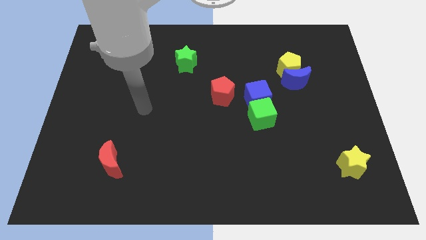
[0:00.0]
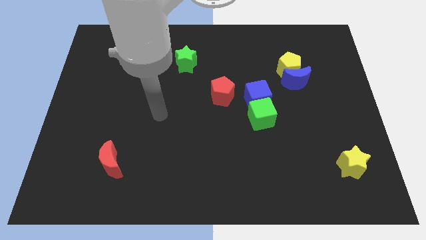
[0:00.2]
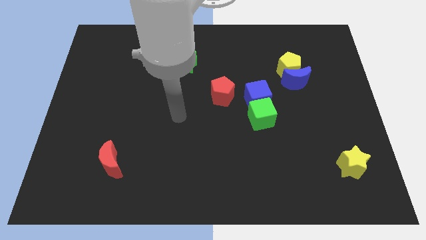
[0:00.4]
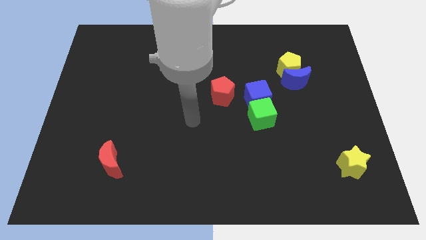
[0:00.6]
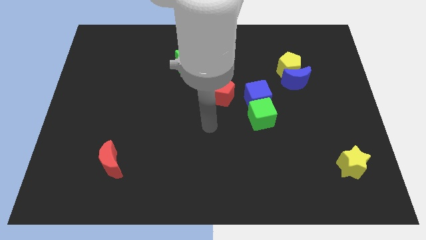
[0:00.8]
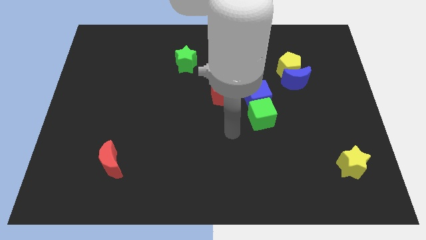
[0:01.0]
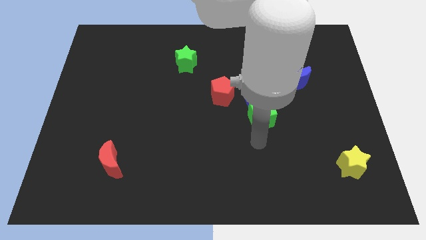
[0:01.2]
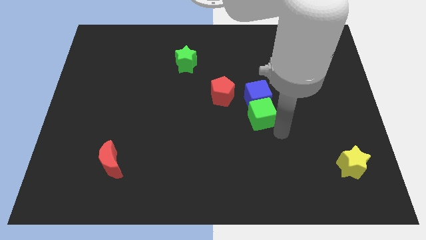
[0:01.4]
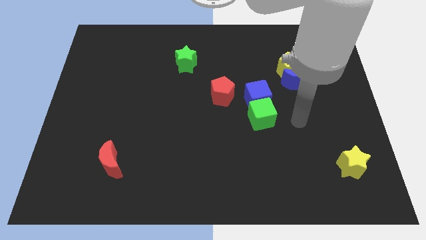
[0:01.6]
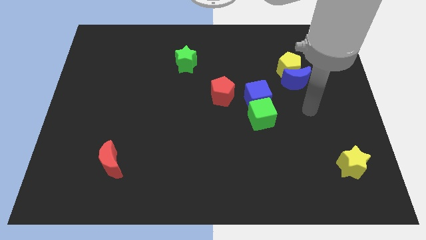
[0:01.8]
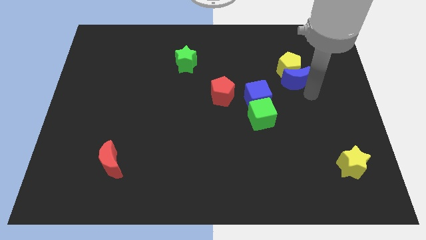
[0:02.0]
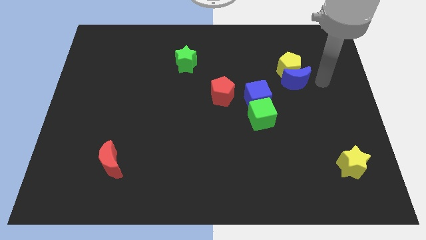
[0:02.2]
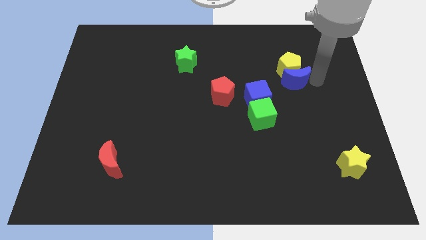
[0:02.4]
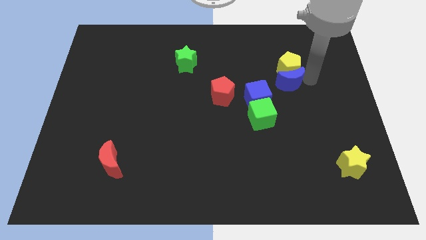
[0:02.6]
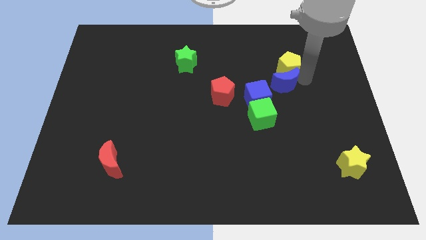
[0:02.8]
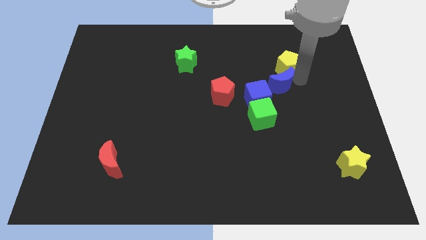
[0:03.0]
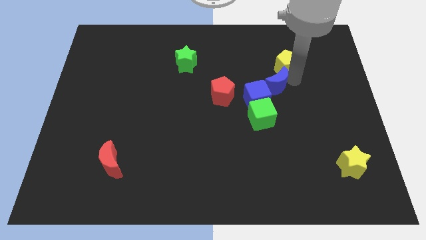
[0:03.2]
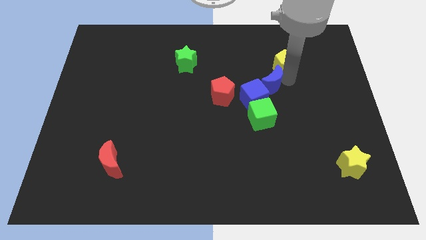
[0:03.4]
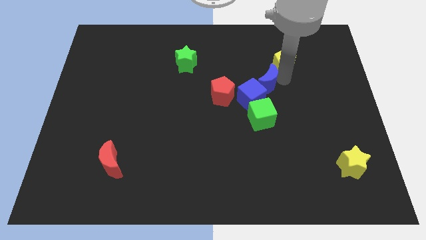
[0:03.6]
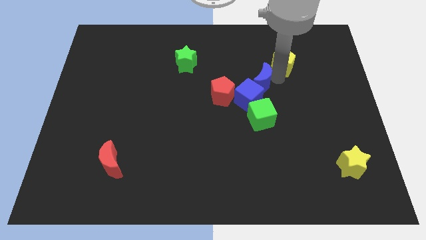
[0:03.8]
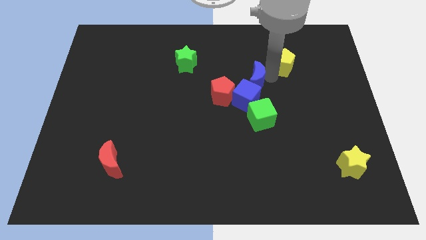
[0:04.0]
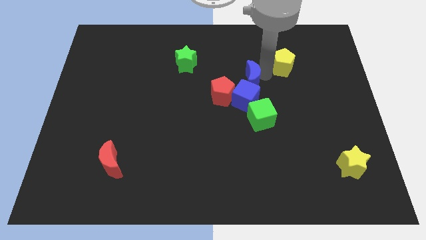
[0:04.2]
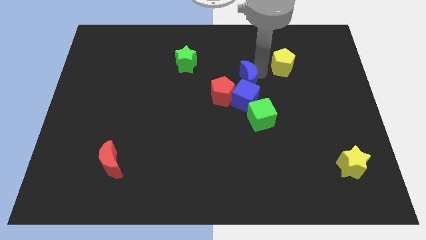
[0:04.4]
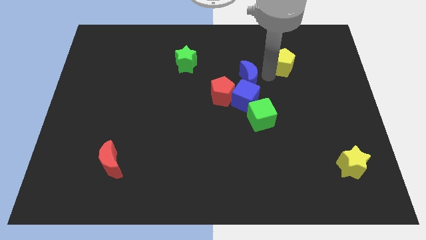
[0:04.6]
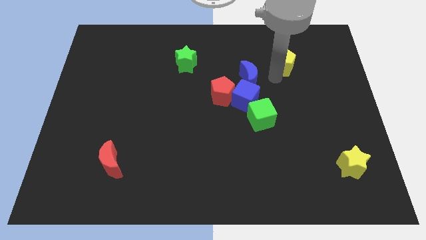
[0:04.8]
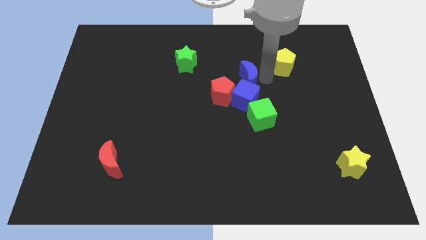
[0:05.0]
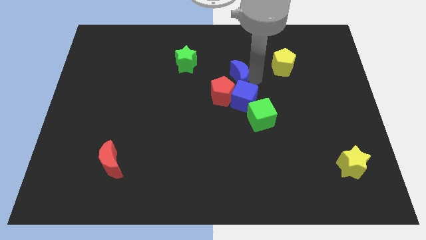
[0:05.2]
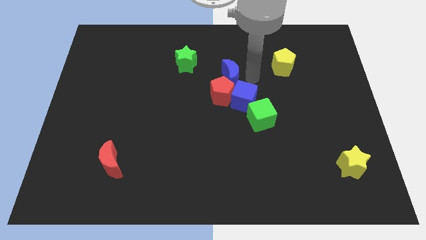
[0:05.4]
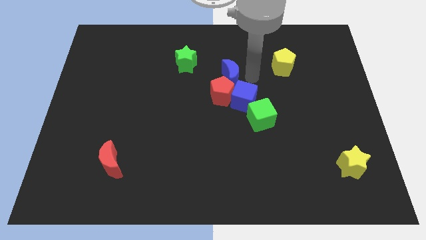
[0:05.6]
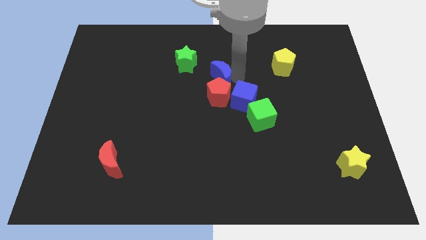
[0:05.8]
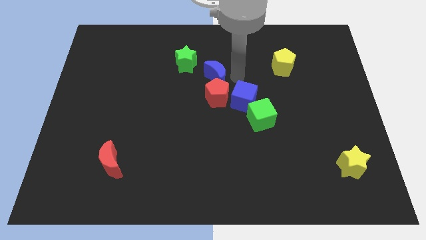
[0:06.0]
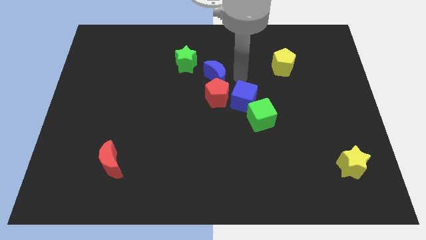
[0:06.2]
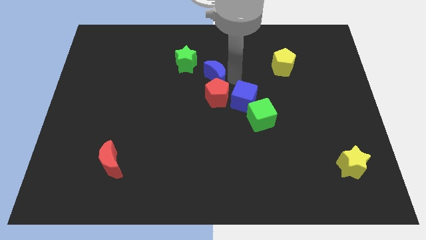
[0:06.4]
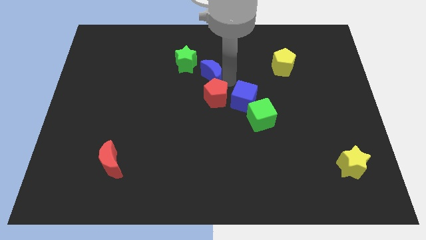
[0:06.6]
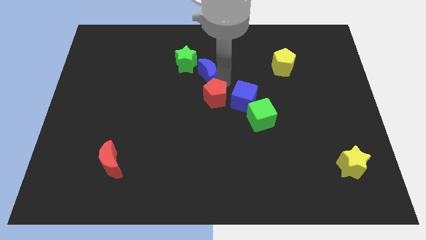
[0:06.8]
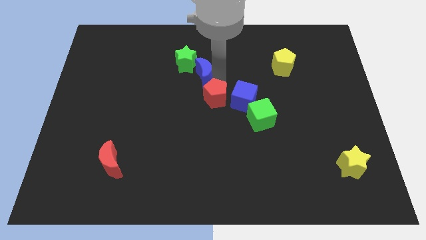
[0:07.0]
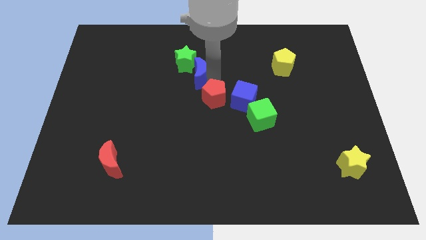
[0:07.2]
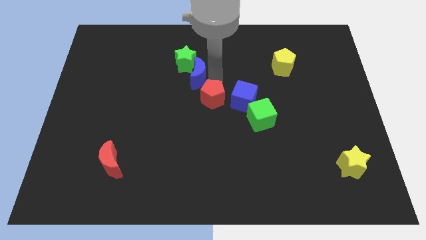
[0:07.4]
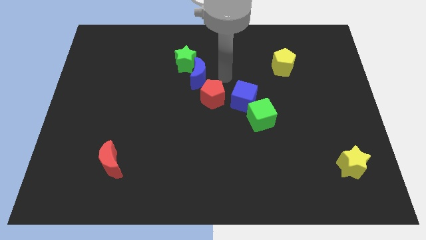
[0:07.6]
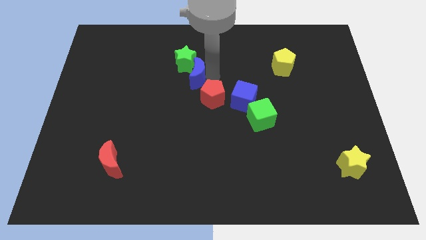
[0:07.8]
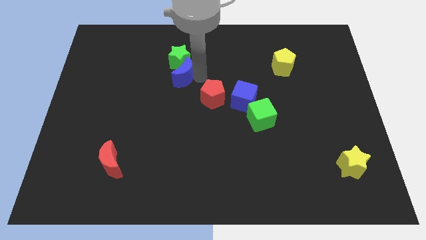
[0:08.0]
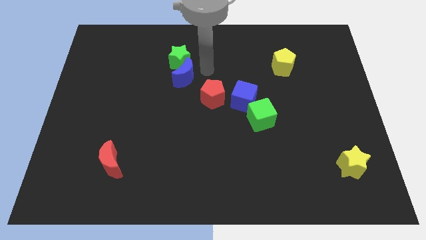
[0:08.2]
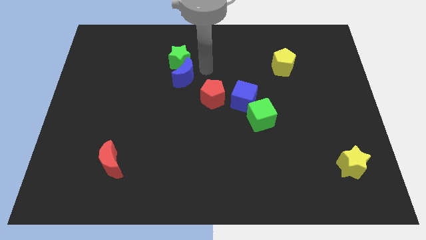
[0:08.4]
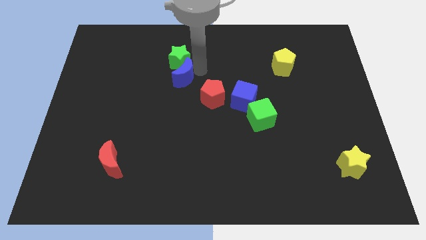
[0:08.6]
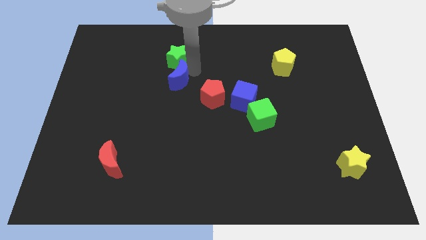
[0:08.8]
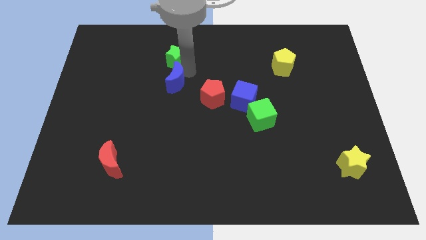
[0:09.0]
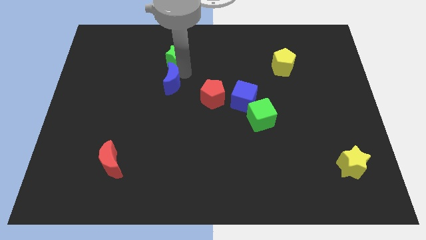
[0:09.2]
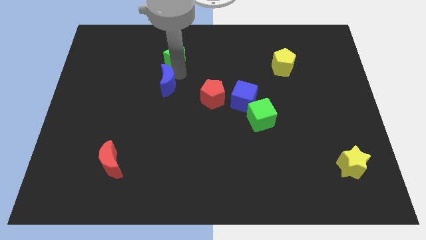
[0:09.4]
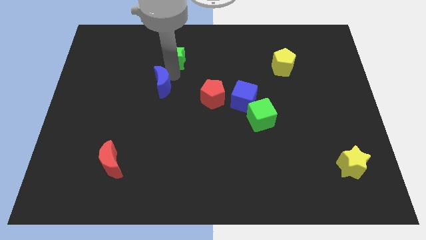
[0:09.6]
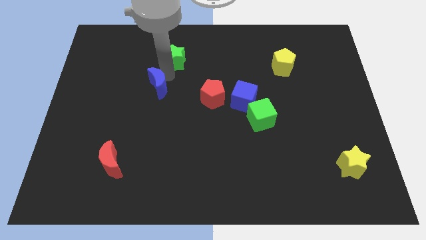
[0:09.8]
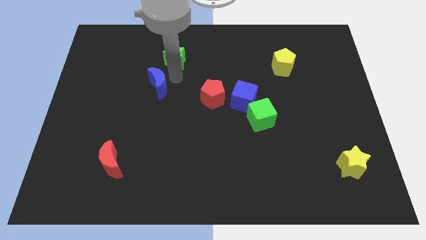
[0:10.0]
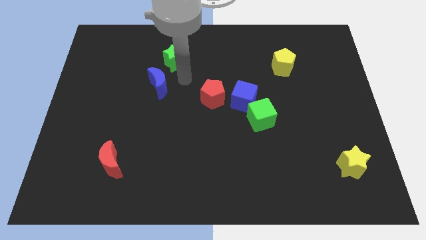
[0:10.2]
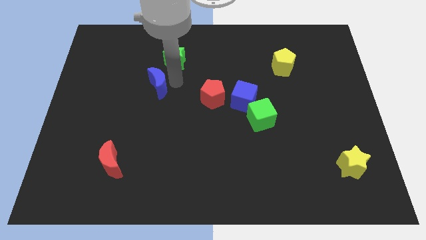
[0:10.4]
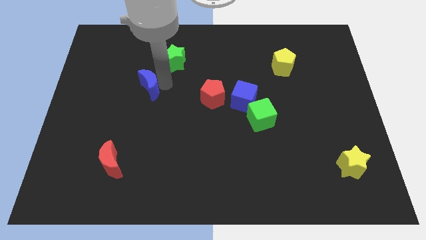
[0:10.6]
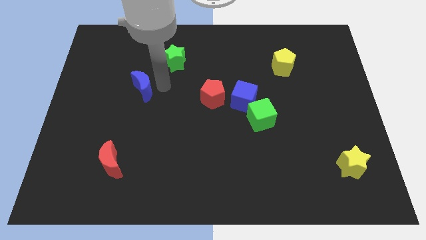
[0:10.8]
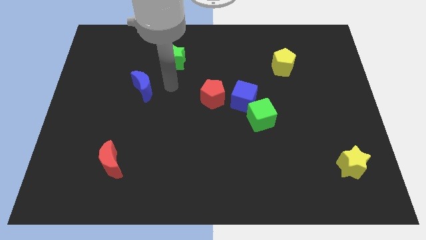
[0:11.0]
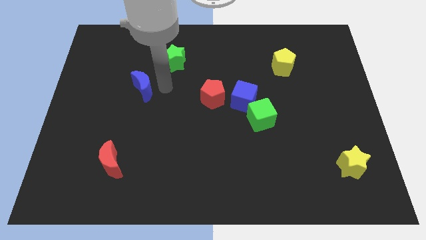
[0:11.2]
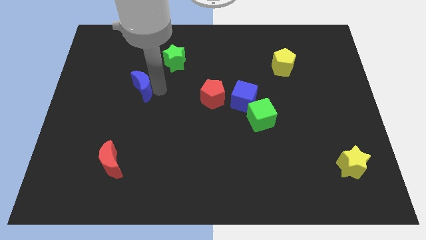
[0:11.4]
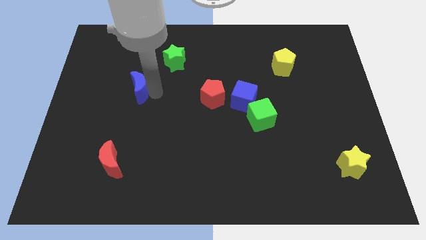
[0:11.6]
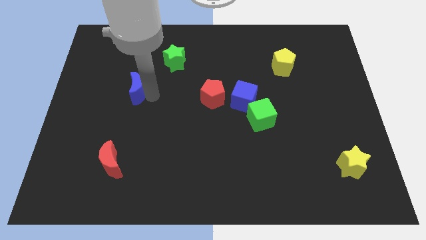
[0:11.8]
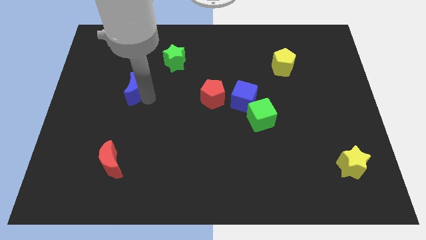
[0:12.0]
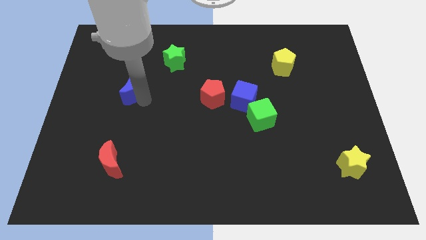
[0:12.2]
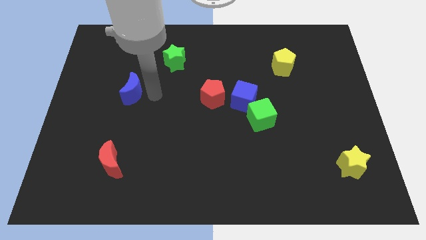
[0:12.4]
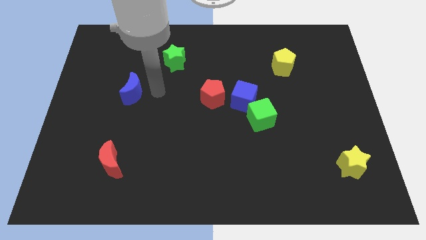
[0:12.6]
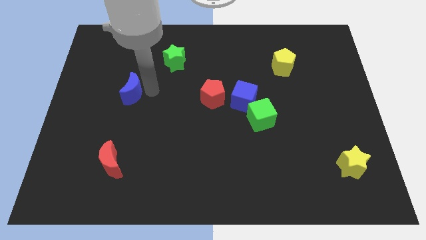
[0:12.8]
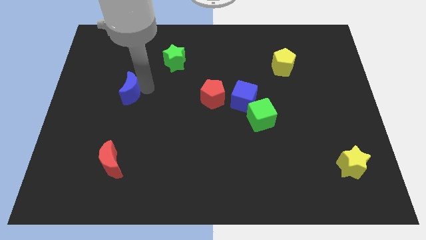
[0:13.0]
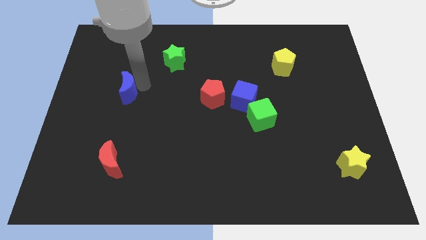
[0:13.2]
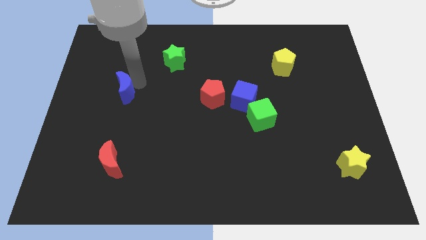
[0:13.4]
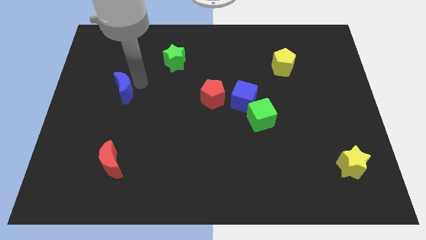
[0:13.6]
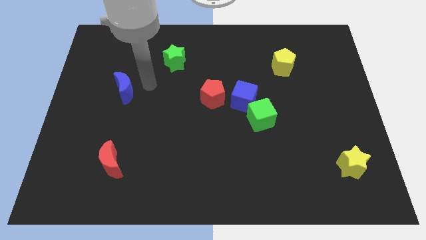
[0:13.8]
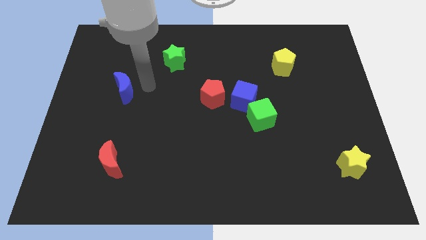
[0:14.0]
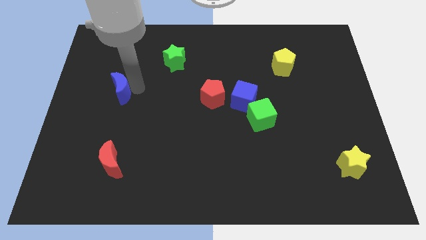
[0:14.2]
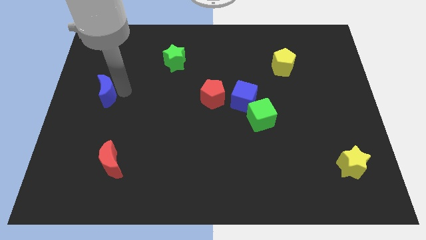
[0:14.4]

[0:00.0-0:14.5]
move the blue moon to the center left
